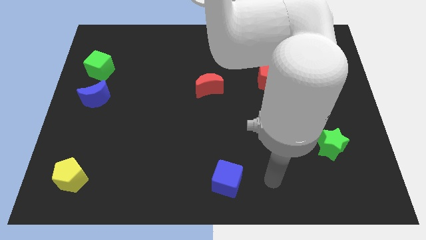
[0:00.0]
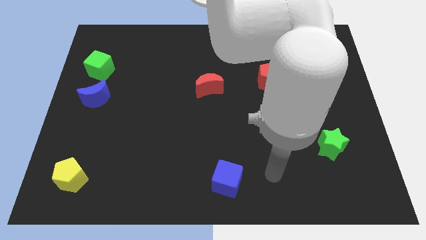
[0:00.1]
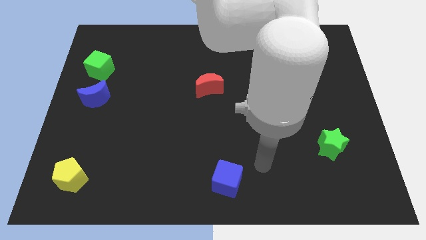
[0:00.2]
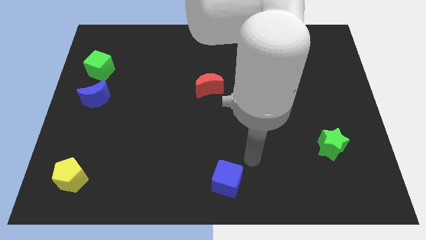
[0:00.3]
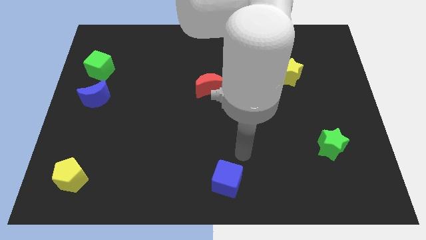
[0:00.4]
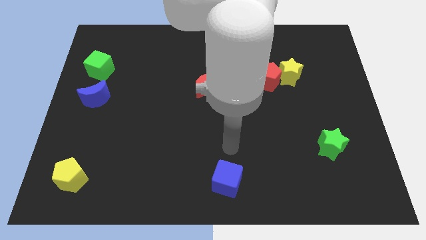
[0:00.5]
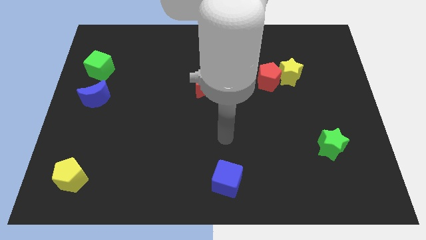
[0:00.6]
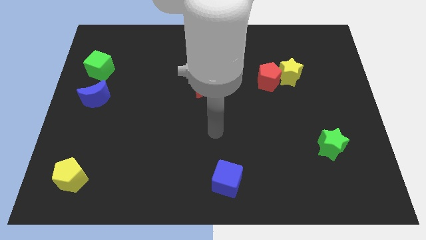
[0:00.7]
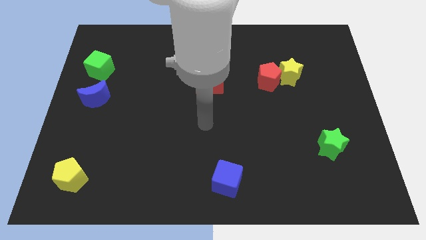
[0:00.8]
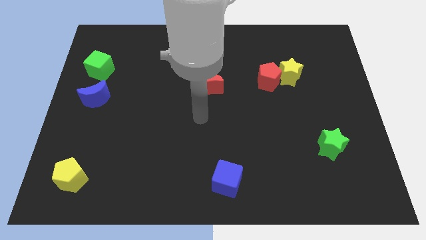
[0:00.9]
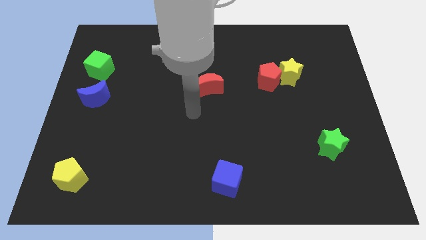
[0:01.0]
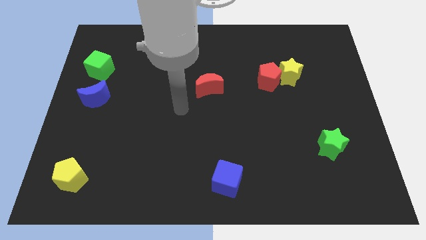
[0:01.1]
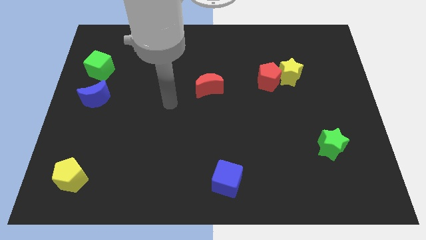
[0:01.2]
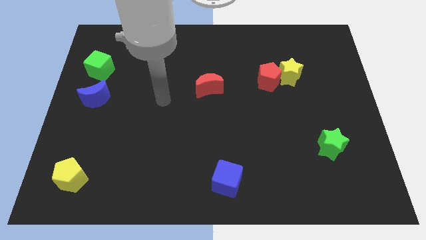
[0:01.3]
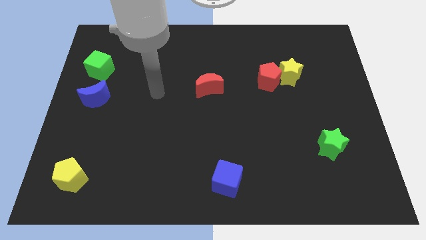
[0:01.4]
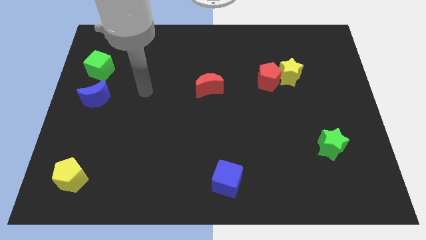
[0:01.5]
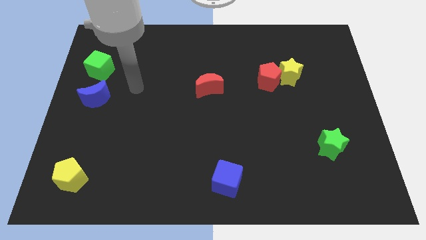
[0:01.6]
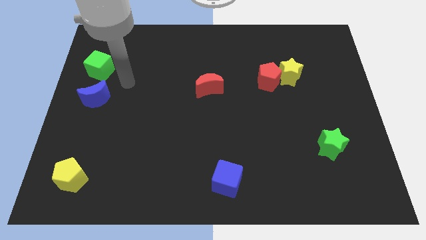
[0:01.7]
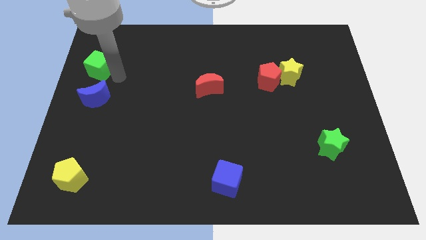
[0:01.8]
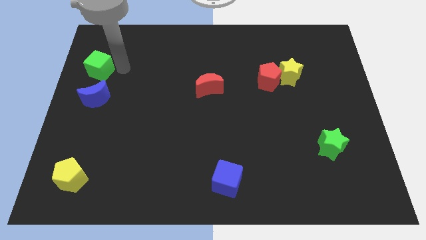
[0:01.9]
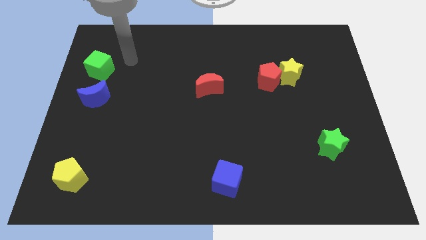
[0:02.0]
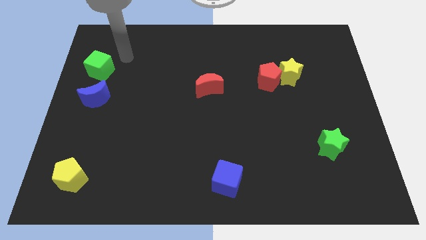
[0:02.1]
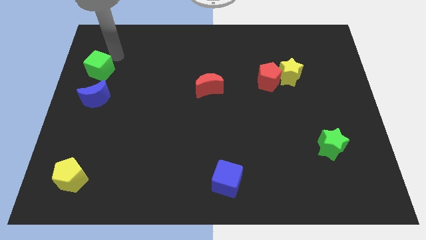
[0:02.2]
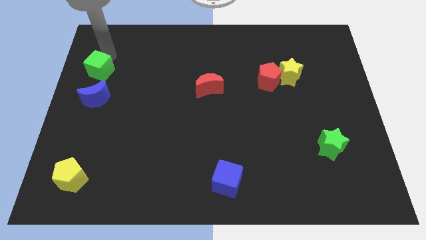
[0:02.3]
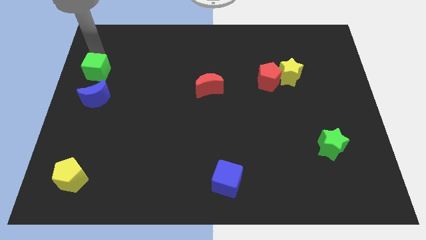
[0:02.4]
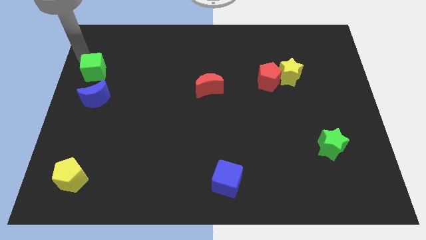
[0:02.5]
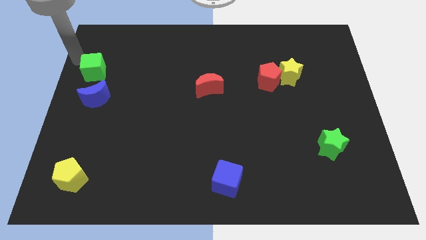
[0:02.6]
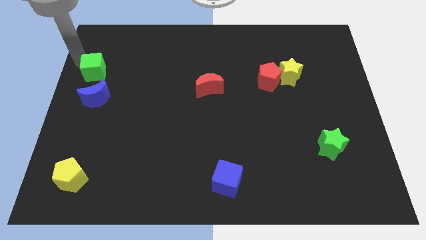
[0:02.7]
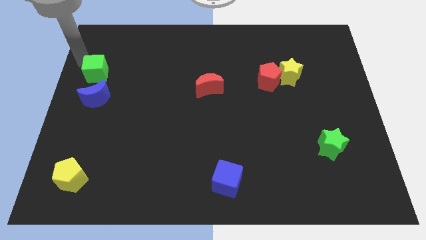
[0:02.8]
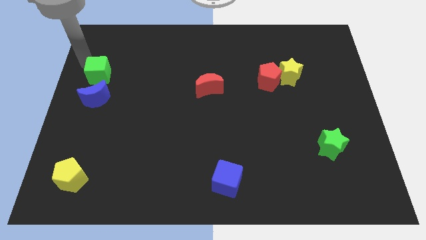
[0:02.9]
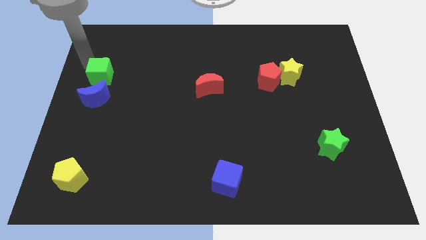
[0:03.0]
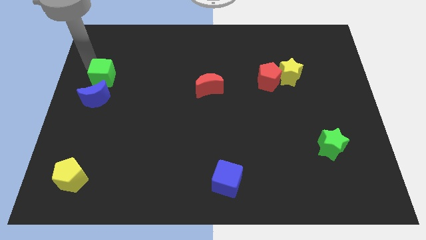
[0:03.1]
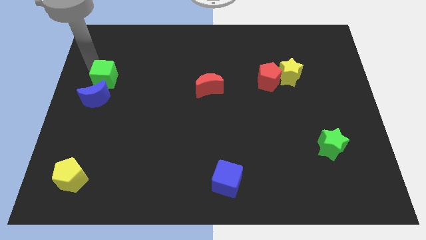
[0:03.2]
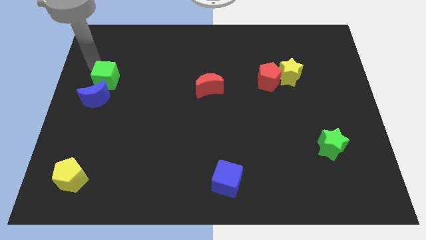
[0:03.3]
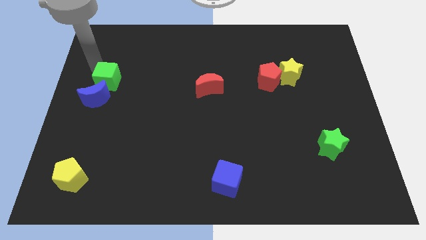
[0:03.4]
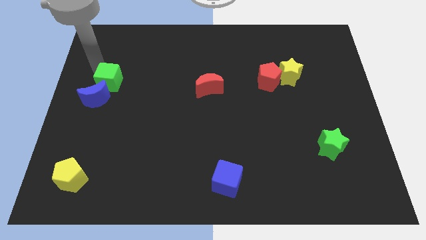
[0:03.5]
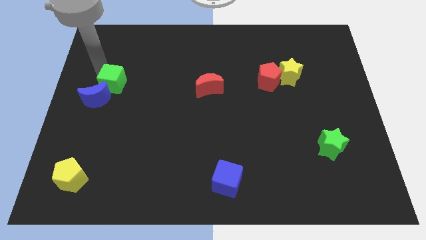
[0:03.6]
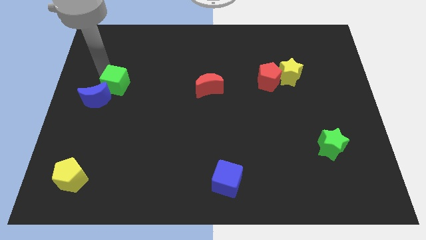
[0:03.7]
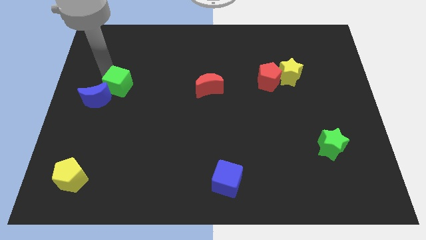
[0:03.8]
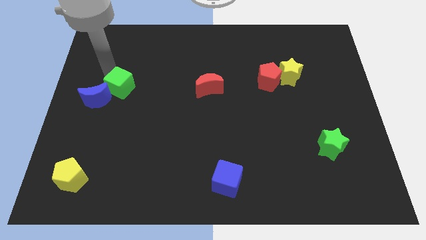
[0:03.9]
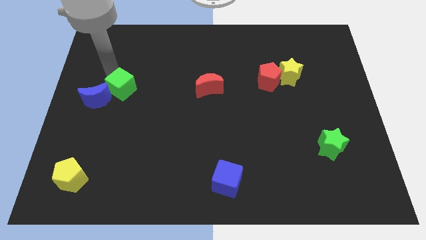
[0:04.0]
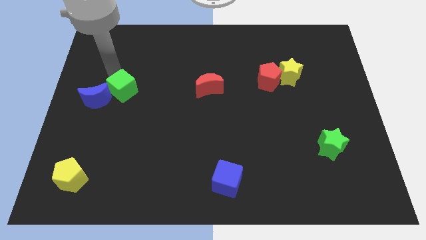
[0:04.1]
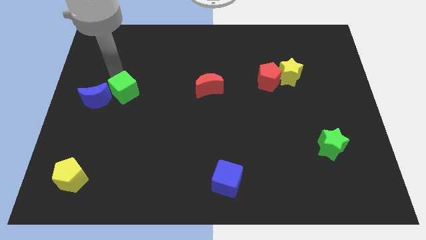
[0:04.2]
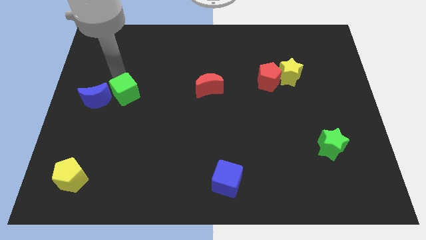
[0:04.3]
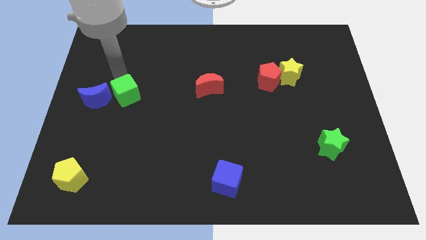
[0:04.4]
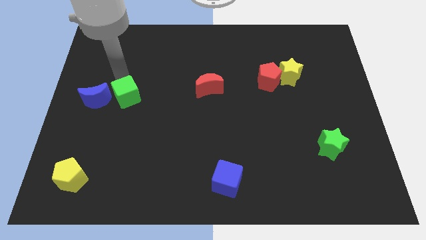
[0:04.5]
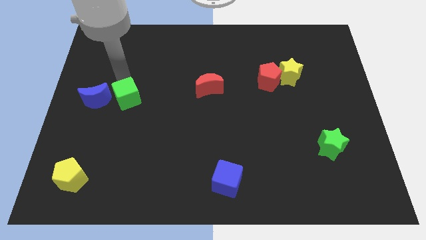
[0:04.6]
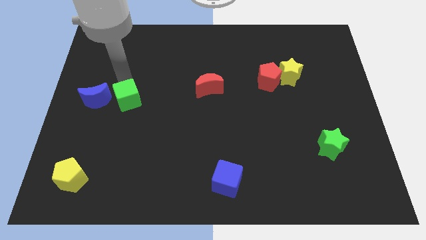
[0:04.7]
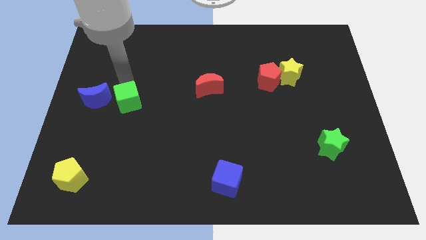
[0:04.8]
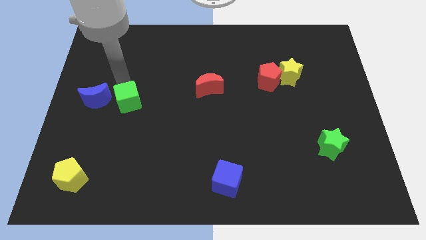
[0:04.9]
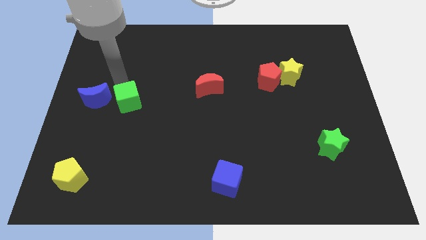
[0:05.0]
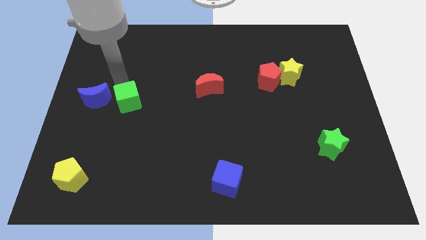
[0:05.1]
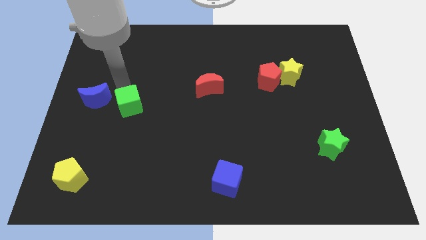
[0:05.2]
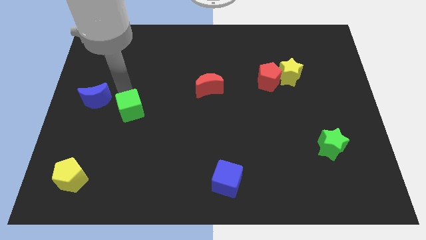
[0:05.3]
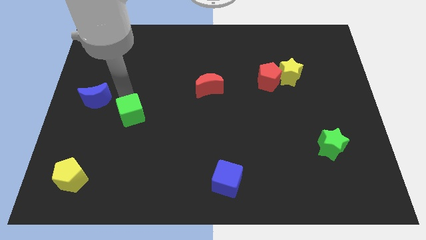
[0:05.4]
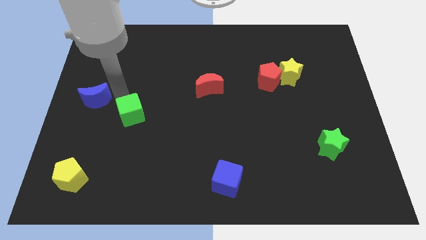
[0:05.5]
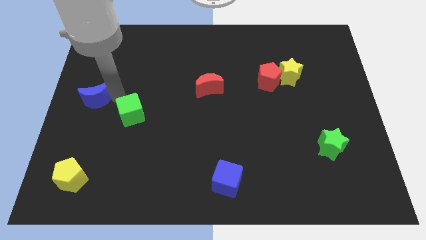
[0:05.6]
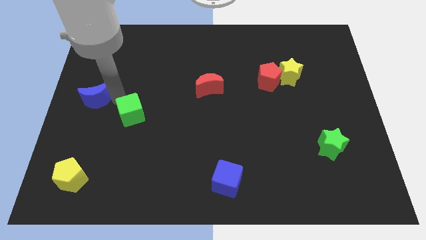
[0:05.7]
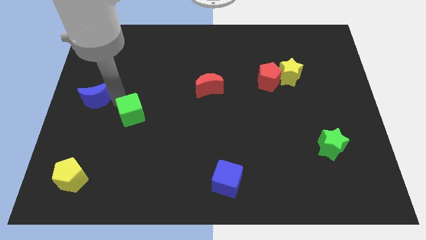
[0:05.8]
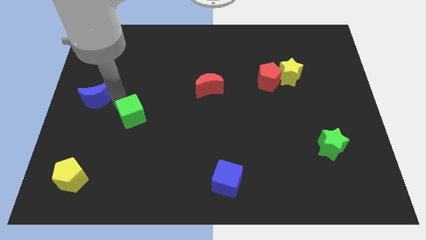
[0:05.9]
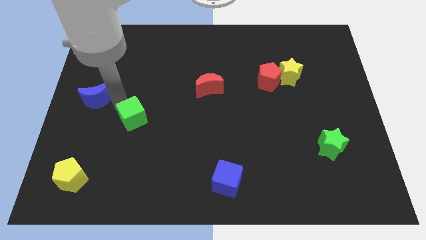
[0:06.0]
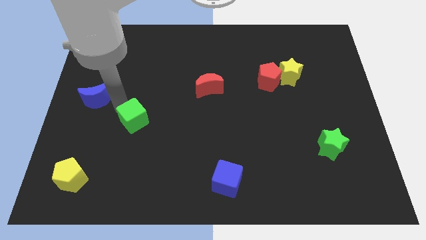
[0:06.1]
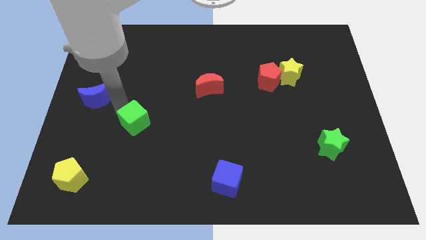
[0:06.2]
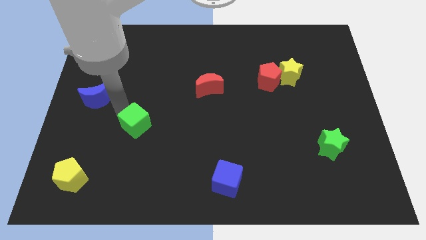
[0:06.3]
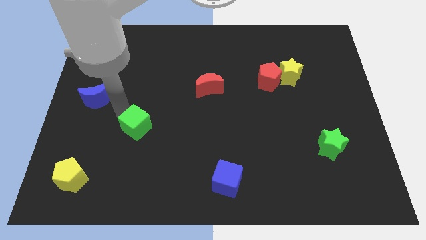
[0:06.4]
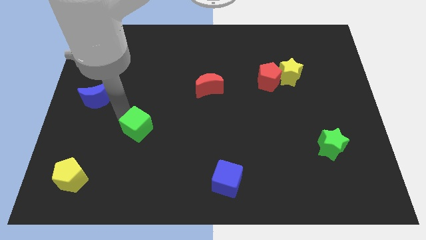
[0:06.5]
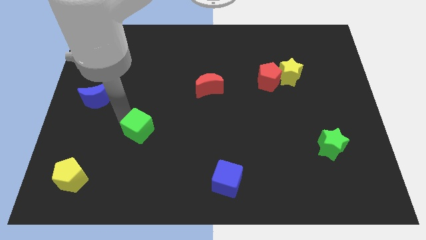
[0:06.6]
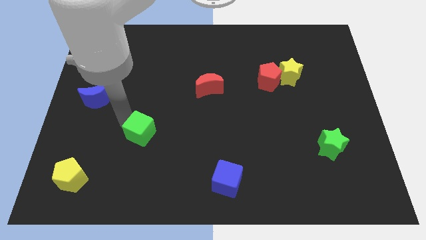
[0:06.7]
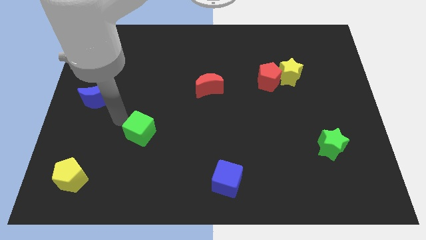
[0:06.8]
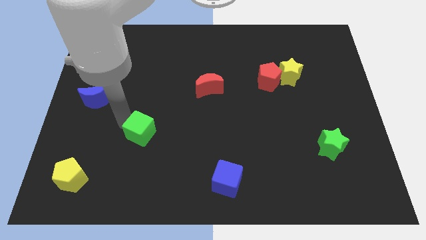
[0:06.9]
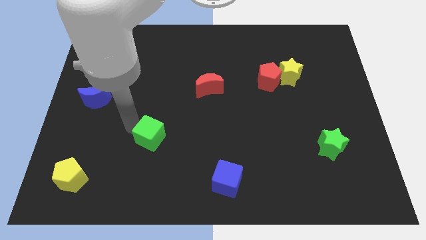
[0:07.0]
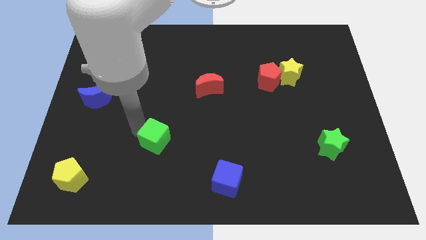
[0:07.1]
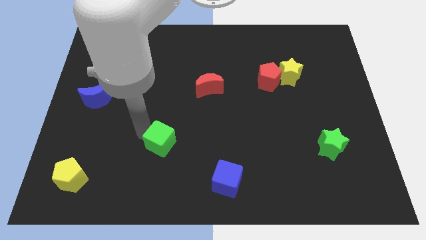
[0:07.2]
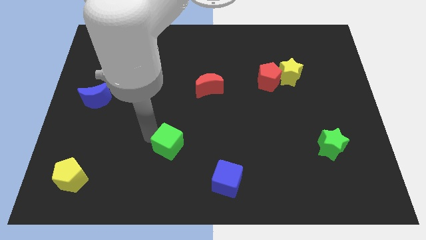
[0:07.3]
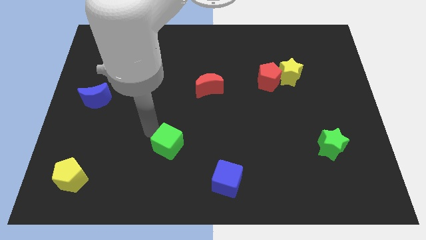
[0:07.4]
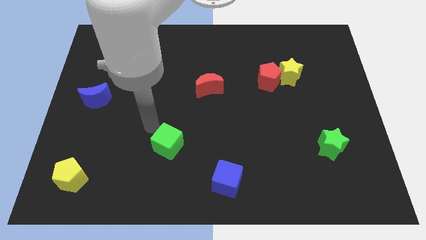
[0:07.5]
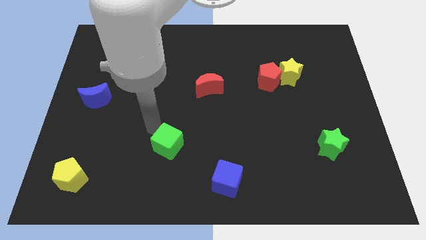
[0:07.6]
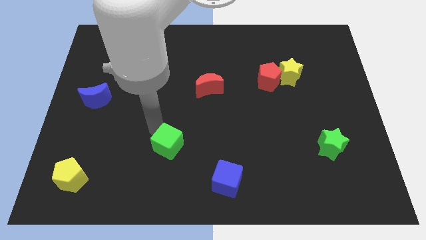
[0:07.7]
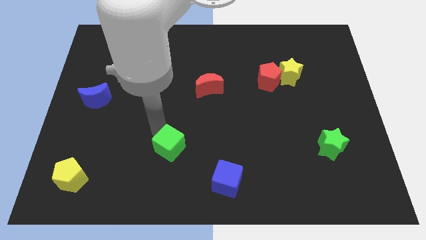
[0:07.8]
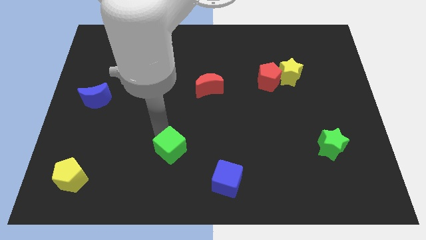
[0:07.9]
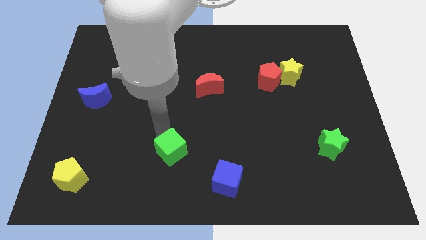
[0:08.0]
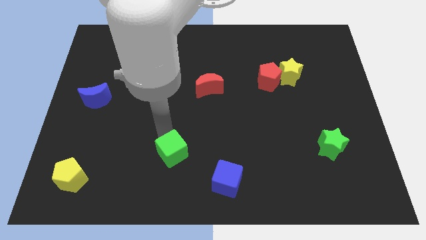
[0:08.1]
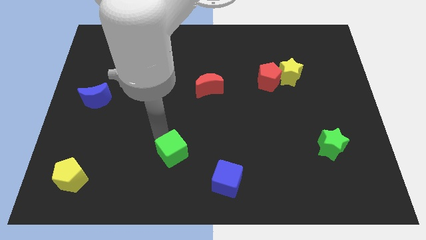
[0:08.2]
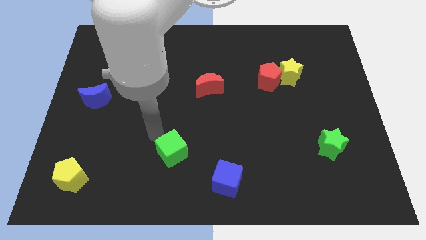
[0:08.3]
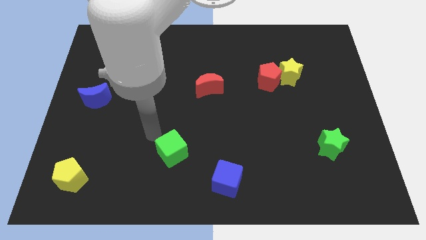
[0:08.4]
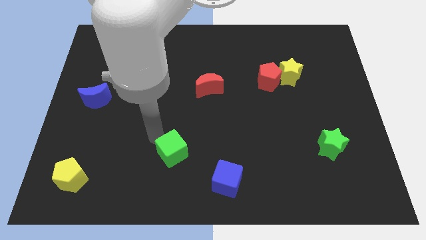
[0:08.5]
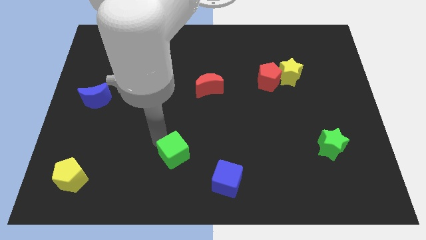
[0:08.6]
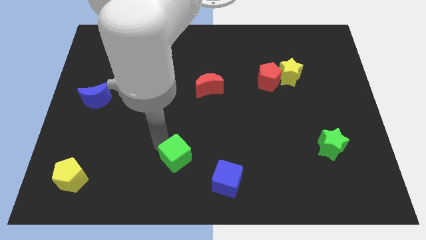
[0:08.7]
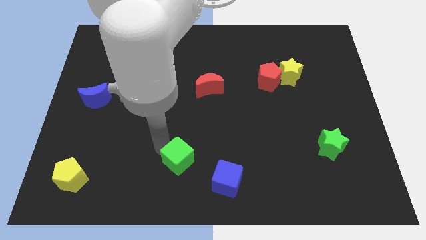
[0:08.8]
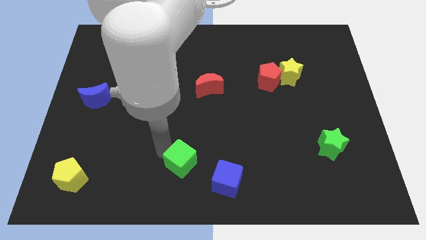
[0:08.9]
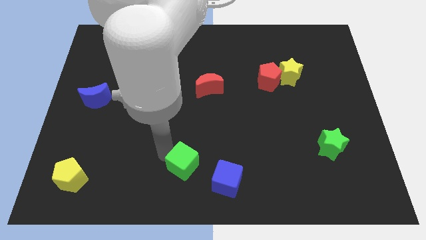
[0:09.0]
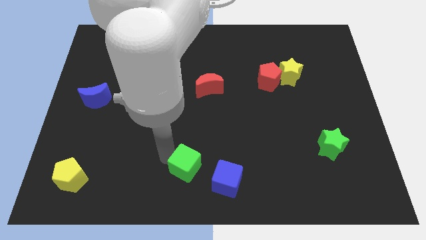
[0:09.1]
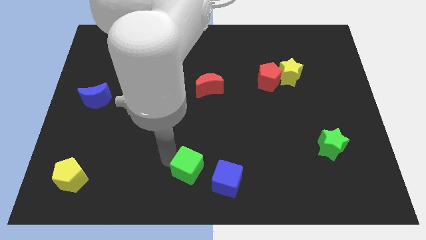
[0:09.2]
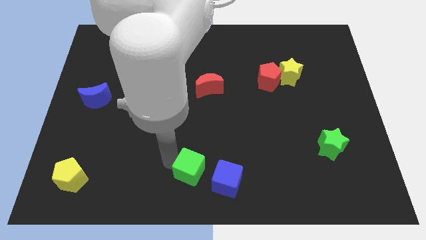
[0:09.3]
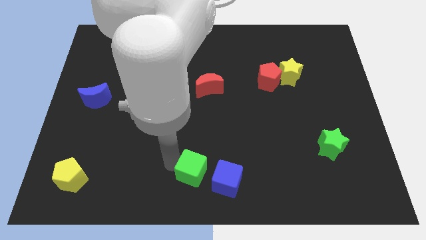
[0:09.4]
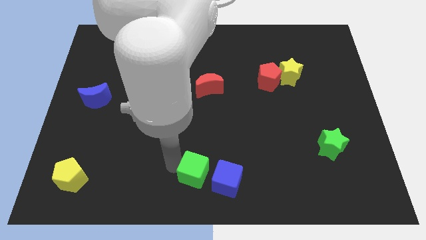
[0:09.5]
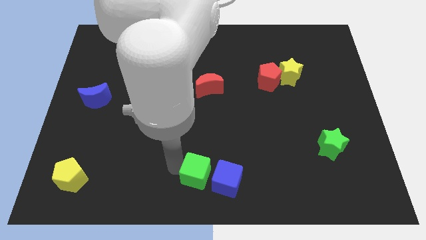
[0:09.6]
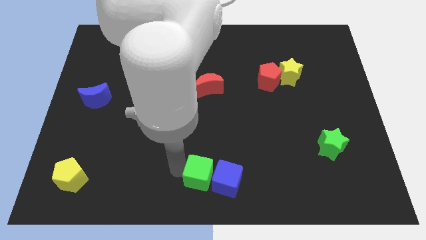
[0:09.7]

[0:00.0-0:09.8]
put the green cube to the blue cube
